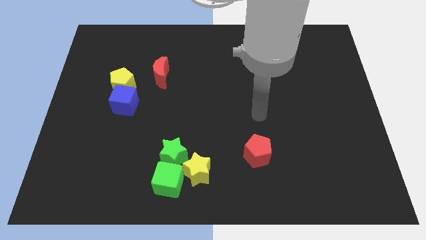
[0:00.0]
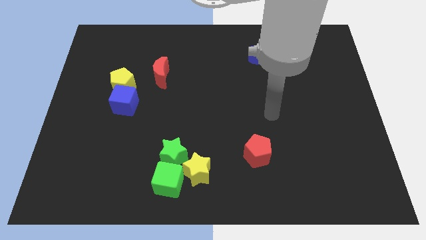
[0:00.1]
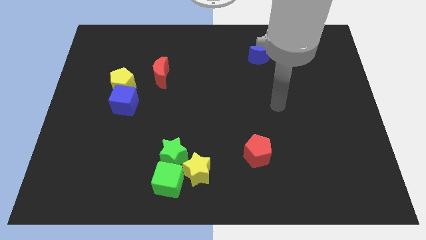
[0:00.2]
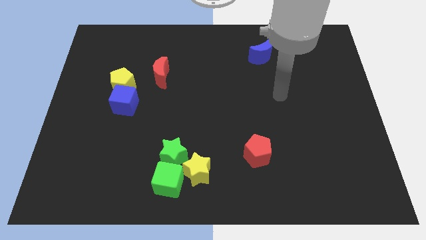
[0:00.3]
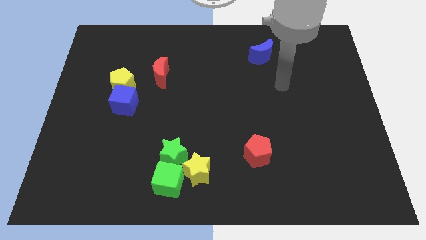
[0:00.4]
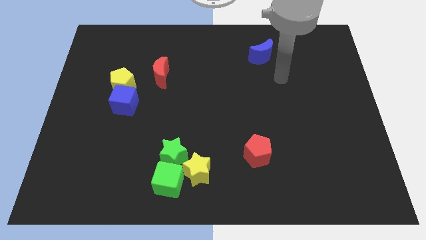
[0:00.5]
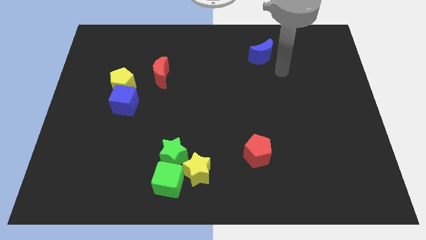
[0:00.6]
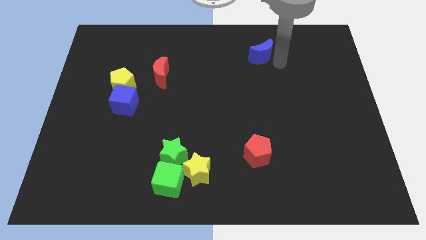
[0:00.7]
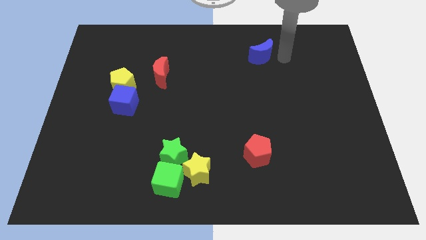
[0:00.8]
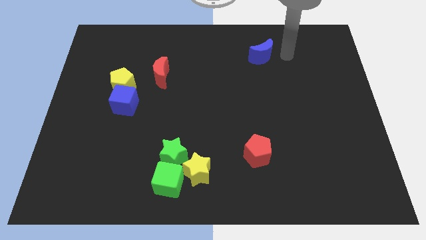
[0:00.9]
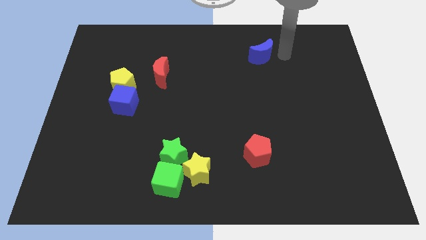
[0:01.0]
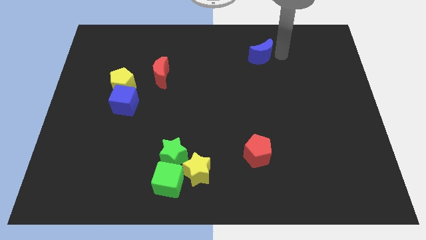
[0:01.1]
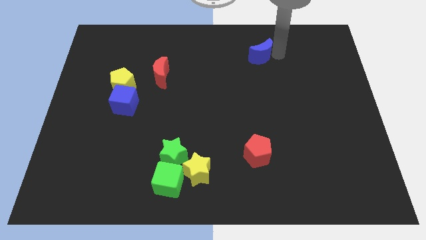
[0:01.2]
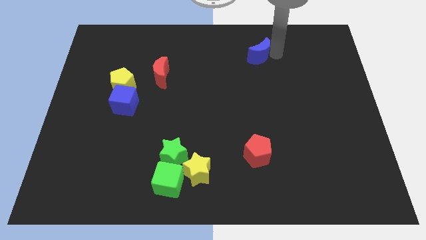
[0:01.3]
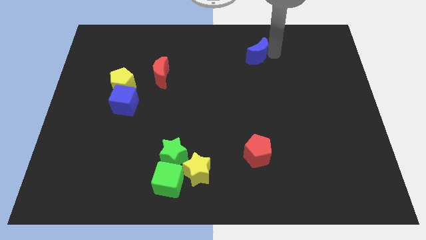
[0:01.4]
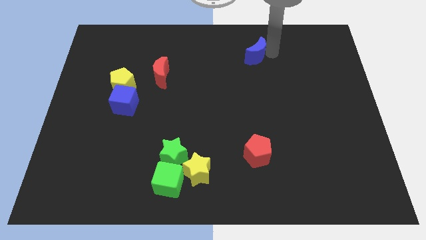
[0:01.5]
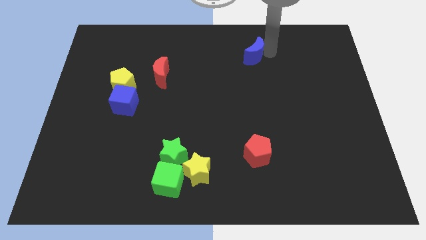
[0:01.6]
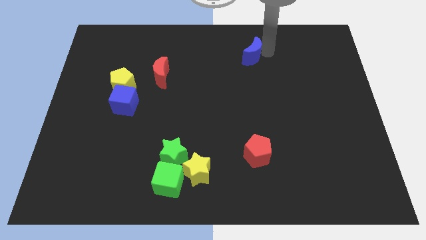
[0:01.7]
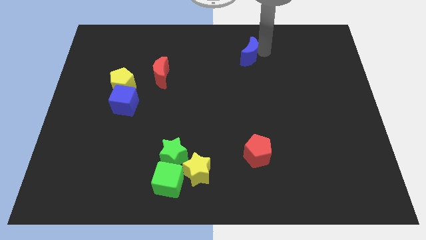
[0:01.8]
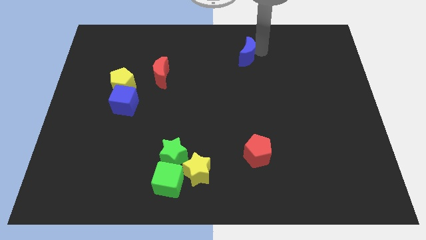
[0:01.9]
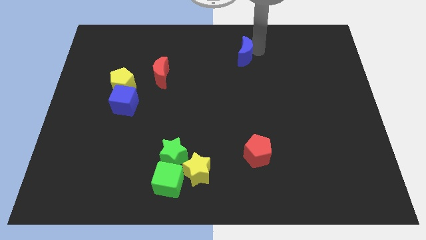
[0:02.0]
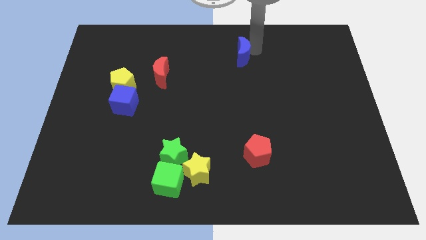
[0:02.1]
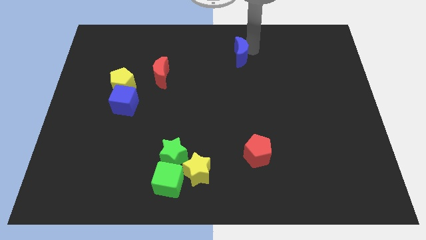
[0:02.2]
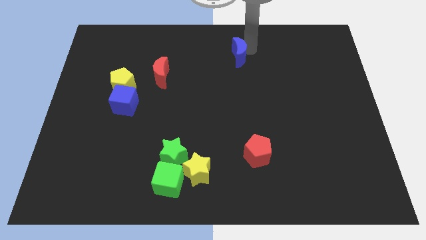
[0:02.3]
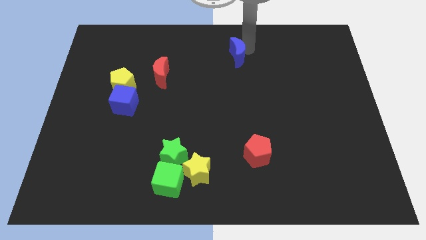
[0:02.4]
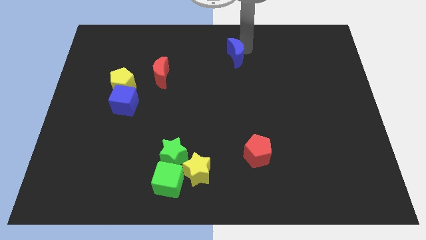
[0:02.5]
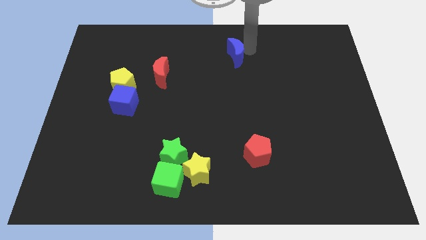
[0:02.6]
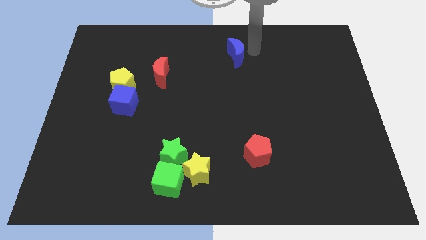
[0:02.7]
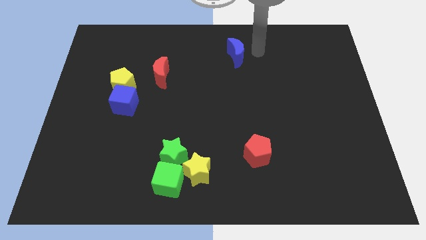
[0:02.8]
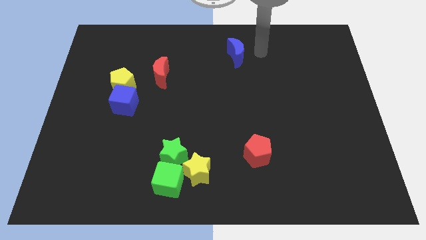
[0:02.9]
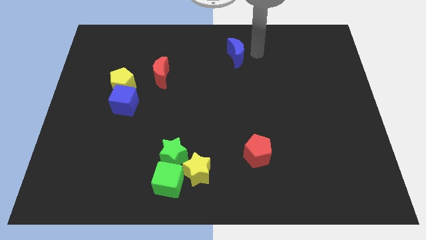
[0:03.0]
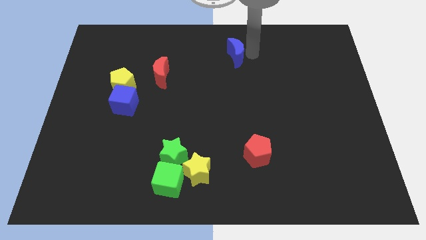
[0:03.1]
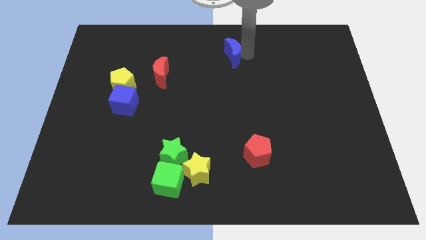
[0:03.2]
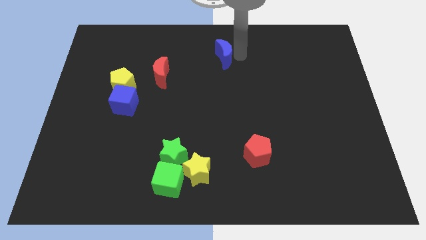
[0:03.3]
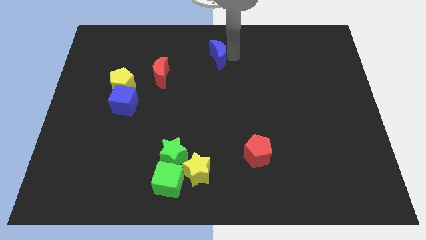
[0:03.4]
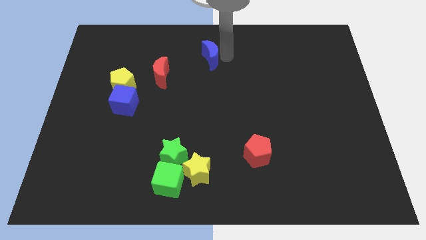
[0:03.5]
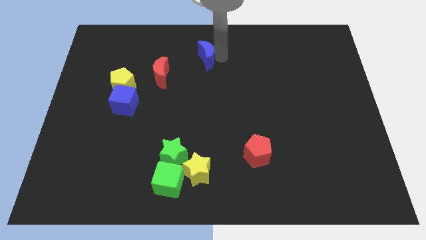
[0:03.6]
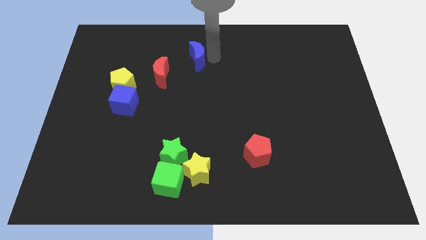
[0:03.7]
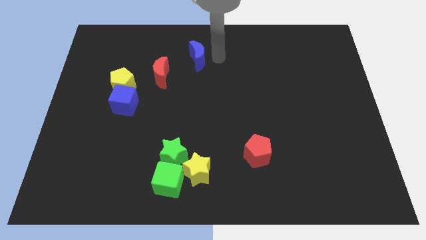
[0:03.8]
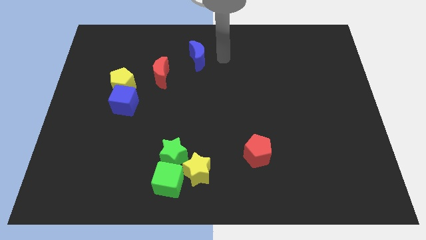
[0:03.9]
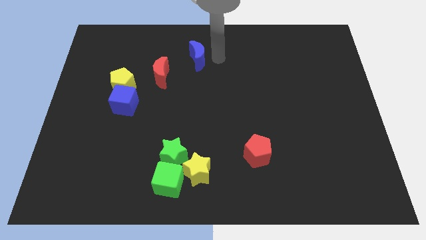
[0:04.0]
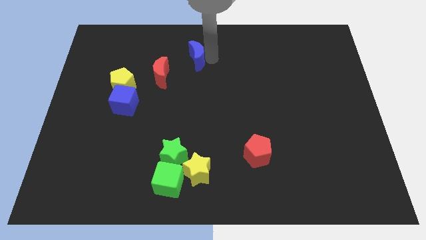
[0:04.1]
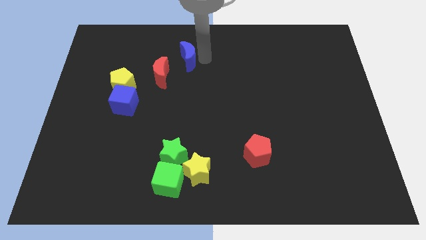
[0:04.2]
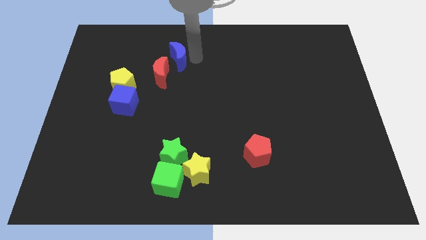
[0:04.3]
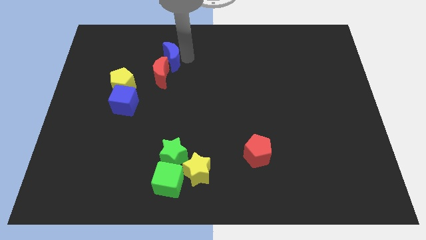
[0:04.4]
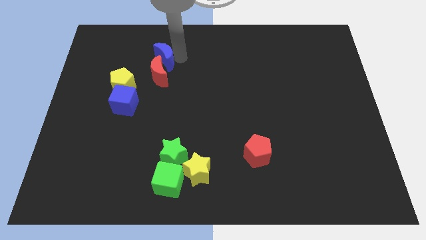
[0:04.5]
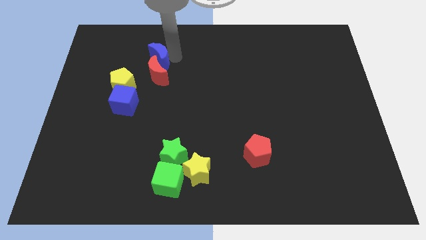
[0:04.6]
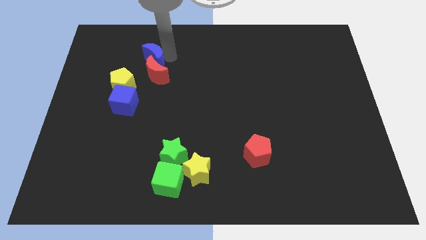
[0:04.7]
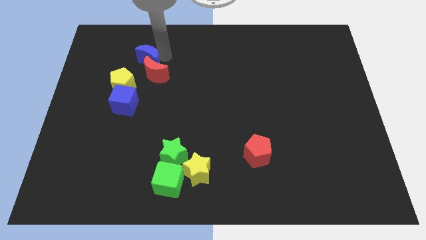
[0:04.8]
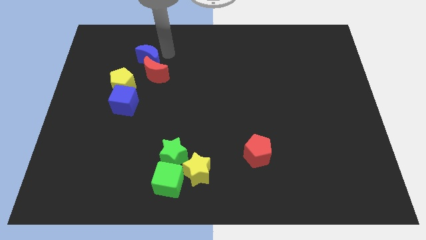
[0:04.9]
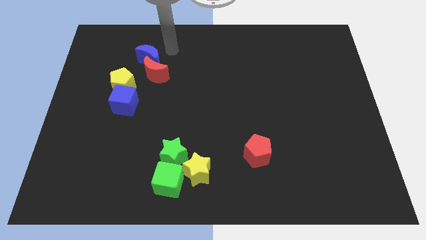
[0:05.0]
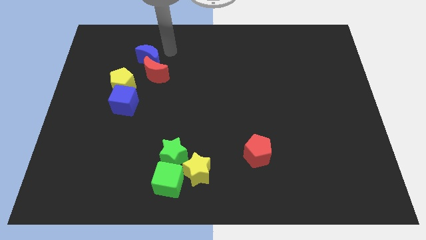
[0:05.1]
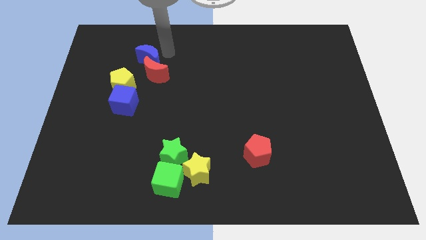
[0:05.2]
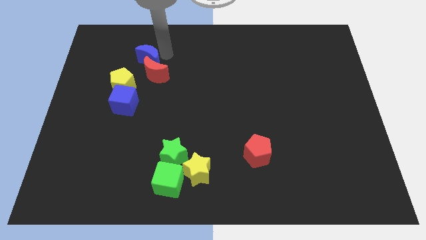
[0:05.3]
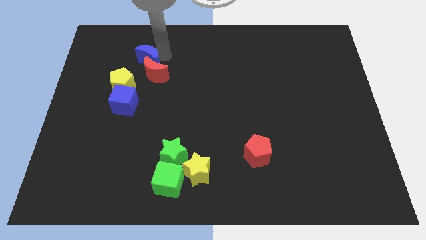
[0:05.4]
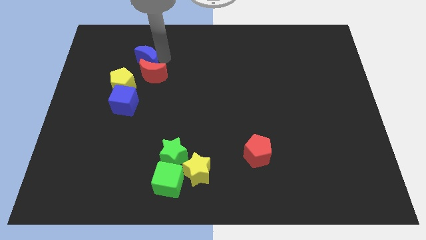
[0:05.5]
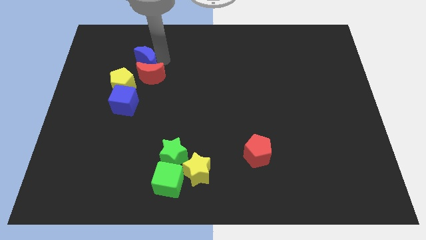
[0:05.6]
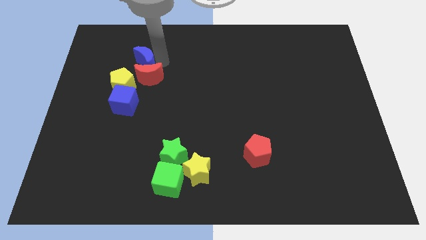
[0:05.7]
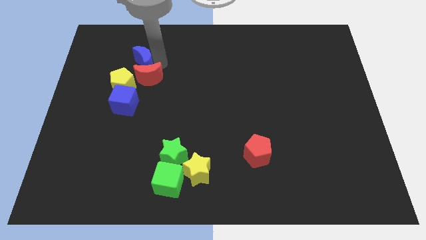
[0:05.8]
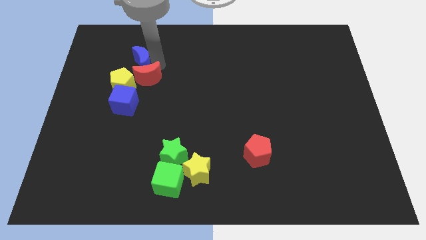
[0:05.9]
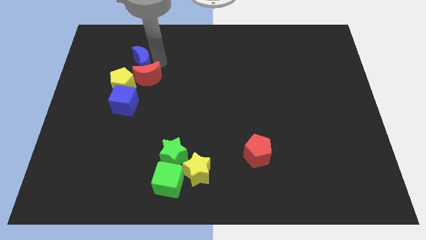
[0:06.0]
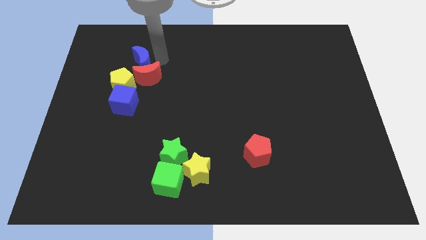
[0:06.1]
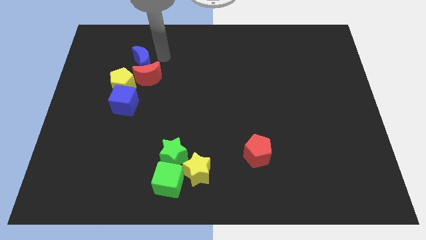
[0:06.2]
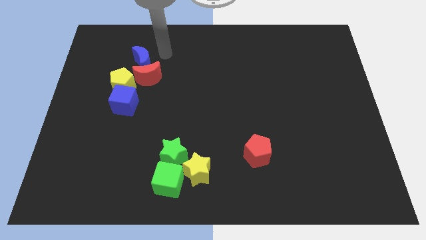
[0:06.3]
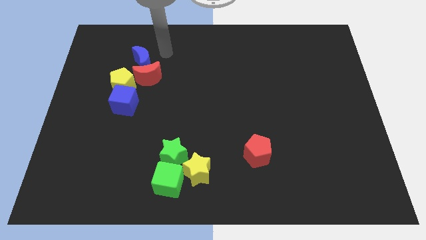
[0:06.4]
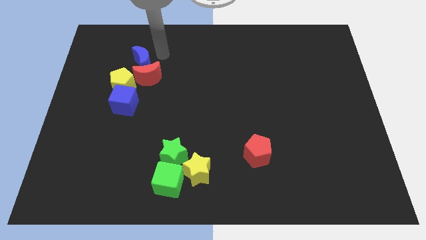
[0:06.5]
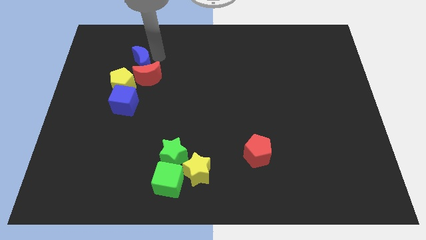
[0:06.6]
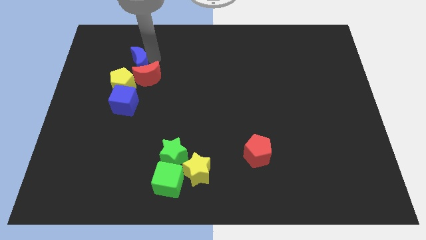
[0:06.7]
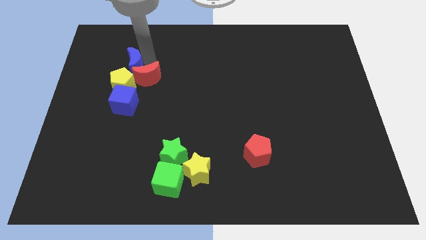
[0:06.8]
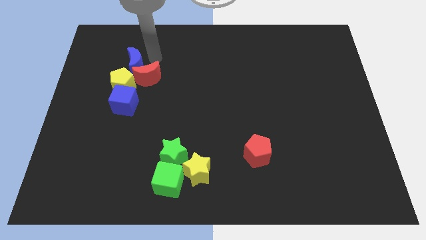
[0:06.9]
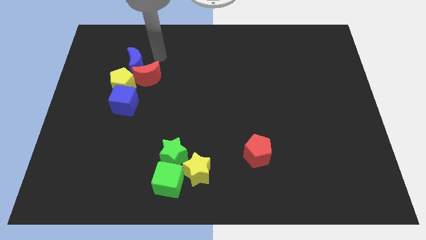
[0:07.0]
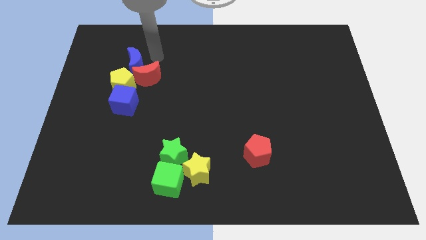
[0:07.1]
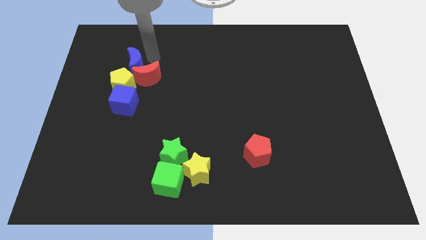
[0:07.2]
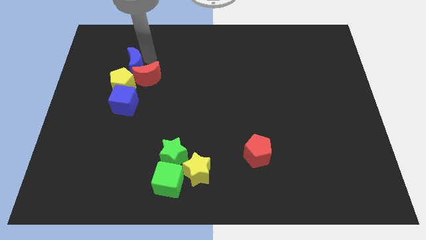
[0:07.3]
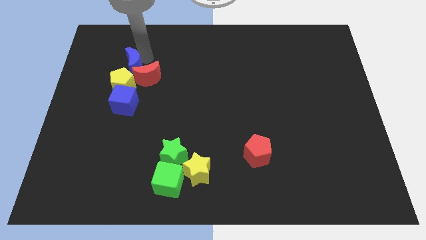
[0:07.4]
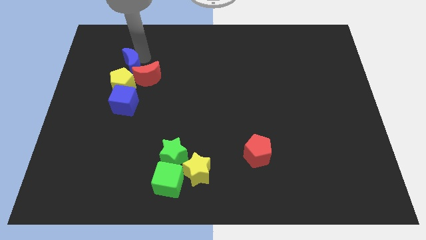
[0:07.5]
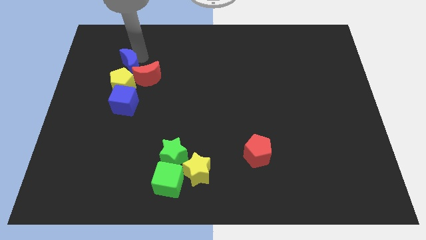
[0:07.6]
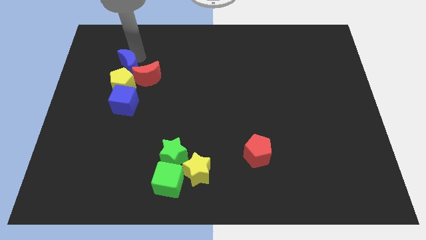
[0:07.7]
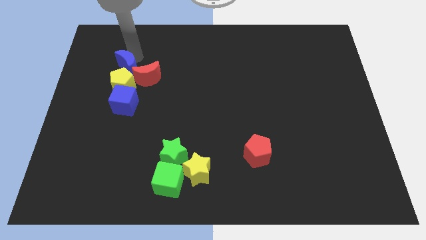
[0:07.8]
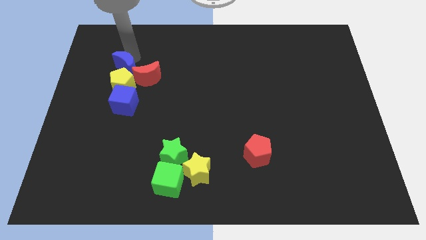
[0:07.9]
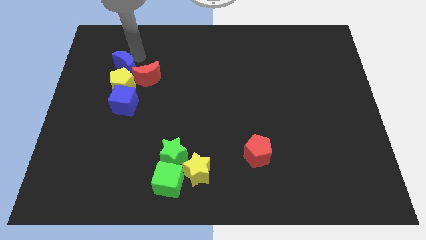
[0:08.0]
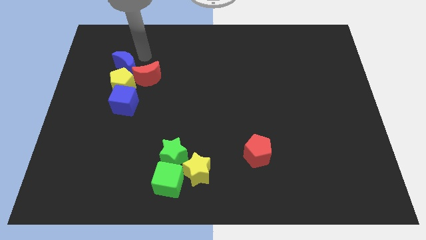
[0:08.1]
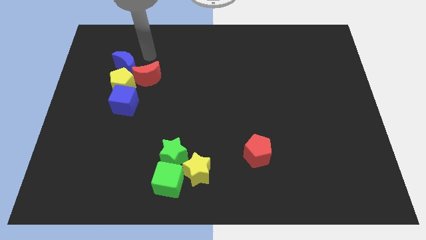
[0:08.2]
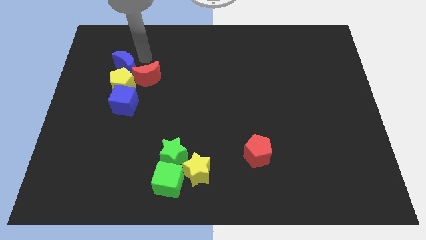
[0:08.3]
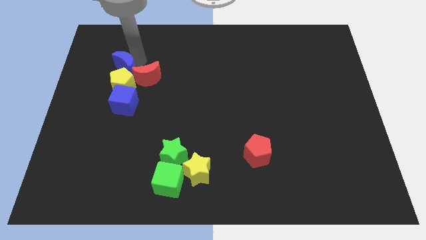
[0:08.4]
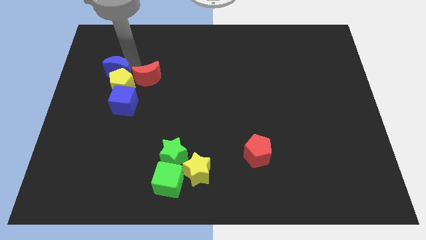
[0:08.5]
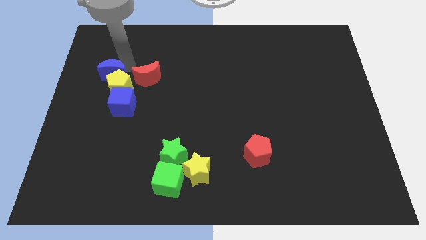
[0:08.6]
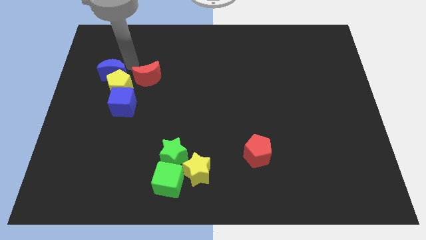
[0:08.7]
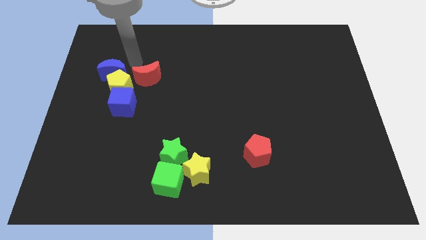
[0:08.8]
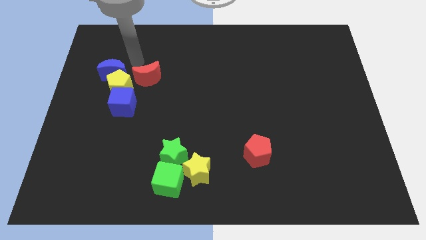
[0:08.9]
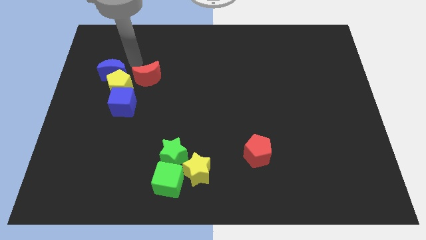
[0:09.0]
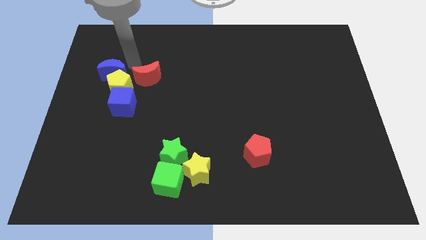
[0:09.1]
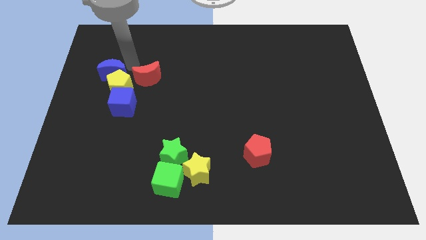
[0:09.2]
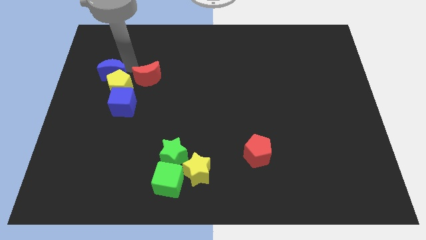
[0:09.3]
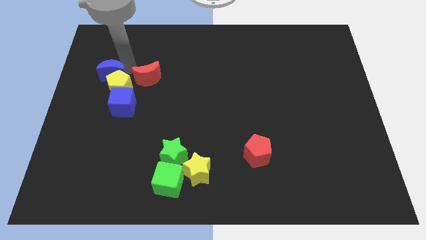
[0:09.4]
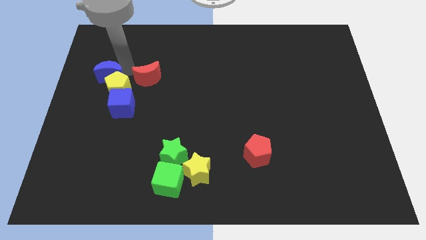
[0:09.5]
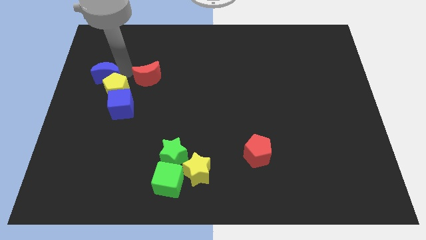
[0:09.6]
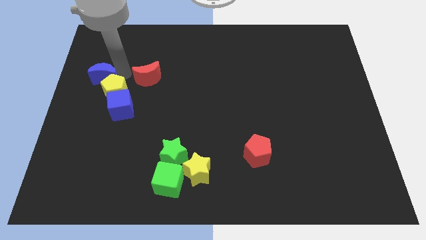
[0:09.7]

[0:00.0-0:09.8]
put the blue moon to the left side of the board
